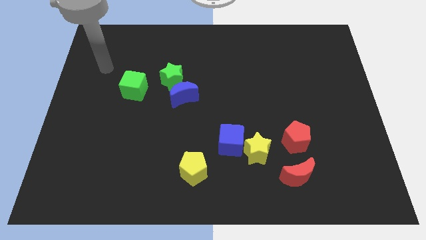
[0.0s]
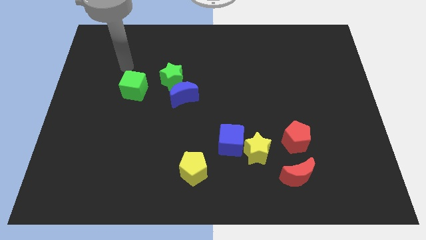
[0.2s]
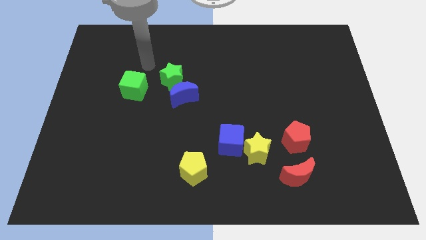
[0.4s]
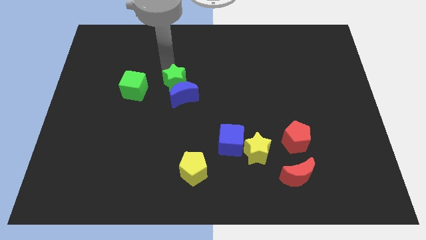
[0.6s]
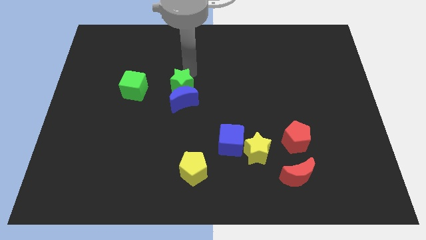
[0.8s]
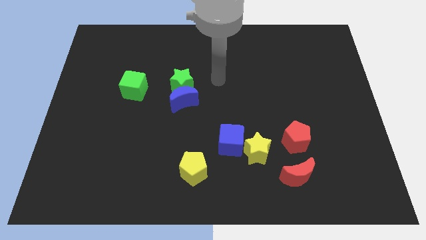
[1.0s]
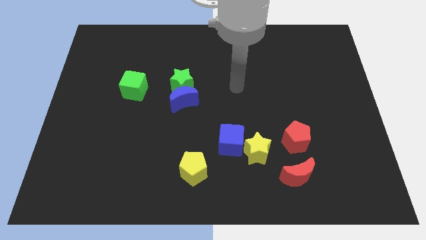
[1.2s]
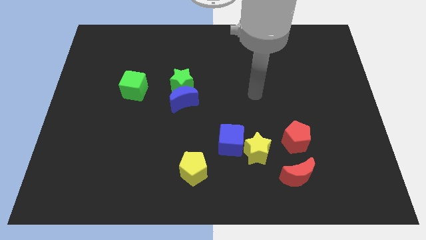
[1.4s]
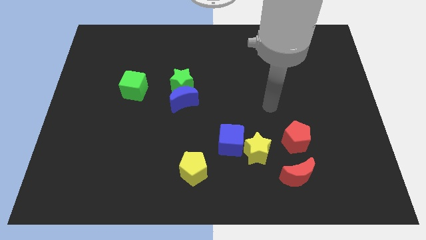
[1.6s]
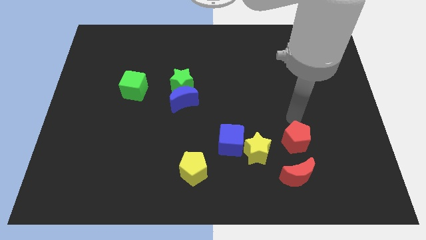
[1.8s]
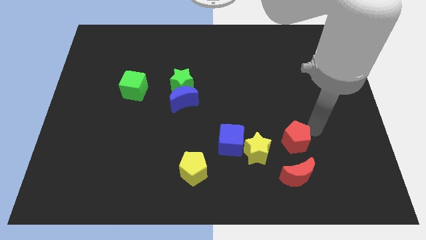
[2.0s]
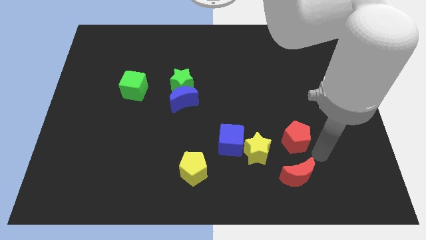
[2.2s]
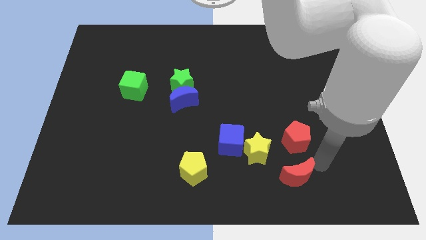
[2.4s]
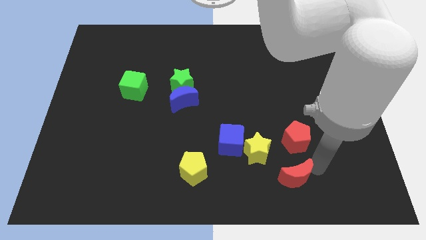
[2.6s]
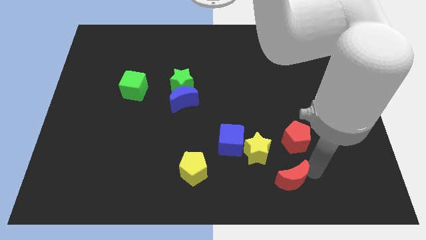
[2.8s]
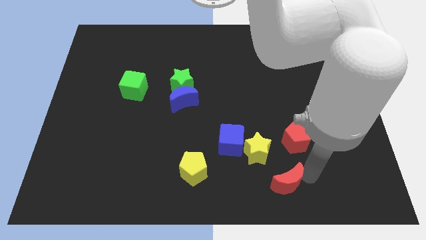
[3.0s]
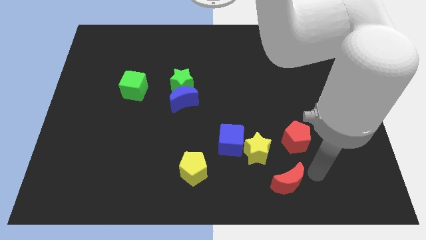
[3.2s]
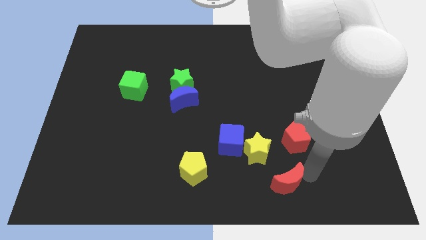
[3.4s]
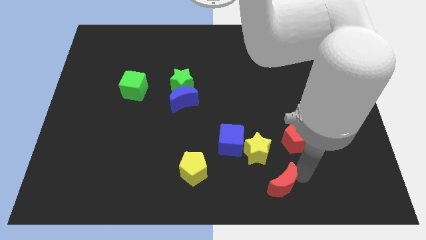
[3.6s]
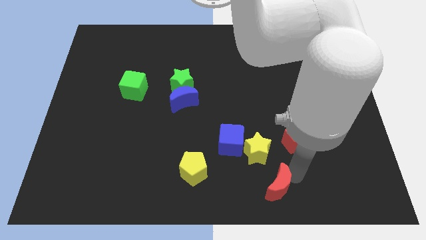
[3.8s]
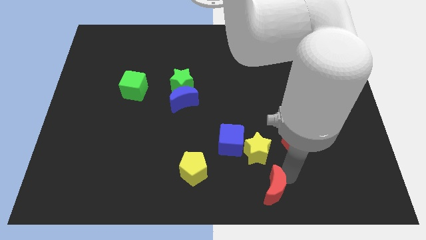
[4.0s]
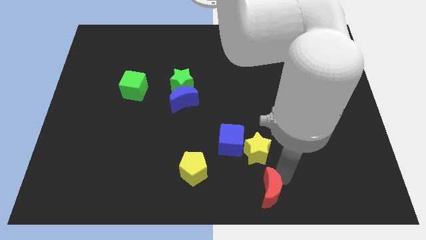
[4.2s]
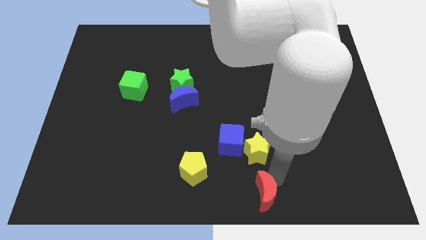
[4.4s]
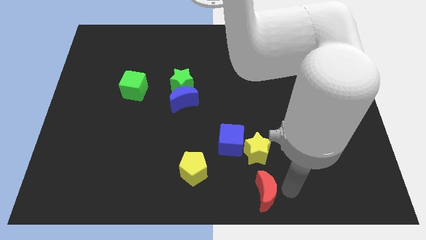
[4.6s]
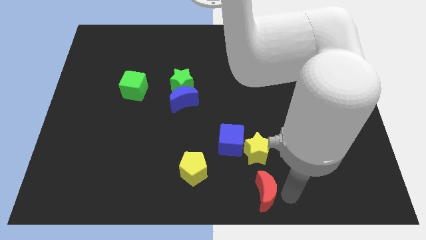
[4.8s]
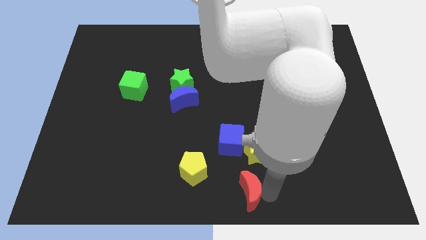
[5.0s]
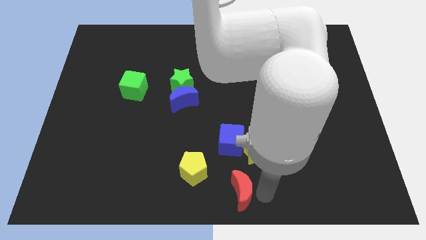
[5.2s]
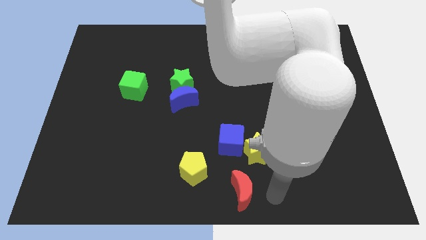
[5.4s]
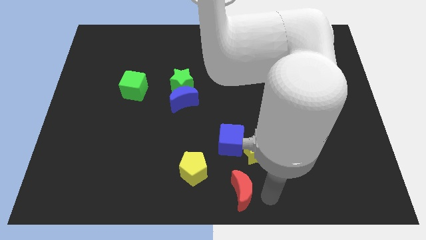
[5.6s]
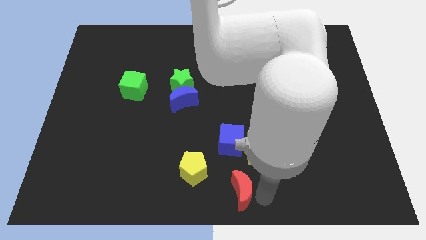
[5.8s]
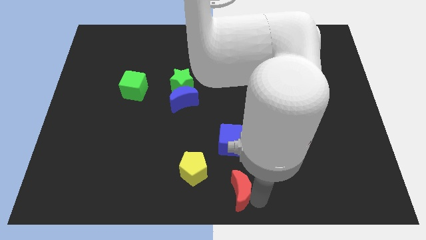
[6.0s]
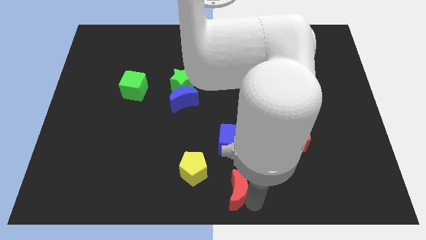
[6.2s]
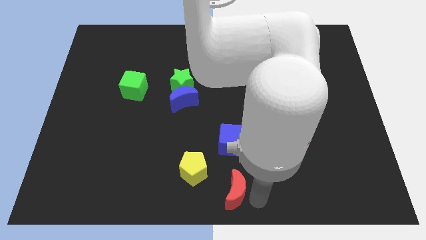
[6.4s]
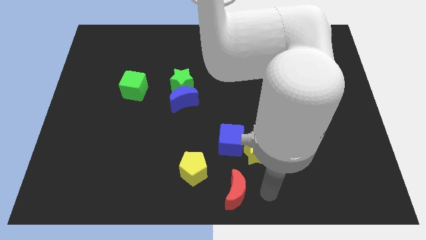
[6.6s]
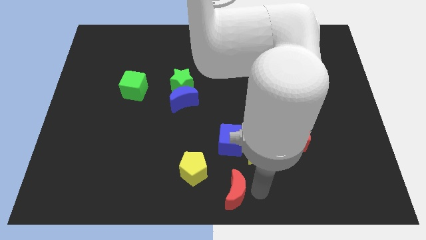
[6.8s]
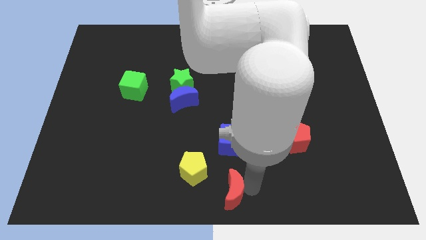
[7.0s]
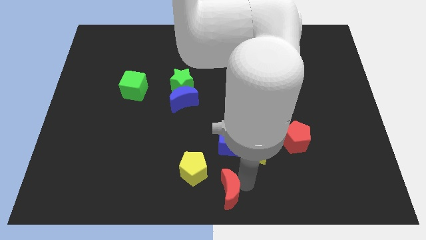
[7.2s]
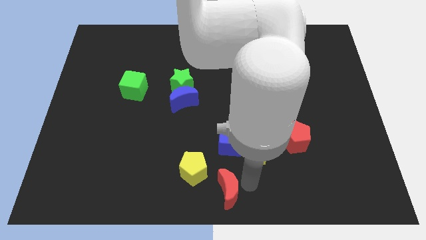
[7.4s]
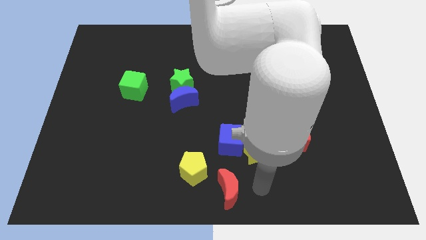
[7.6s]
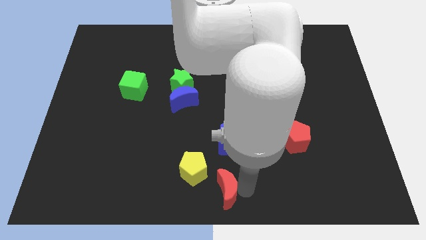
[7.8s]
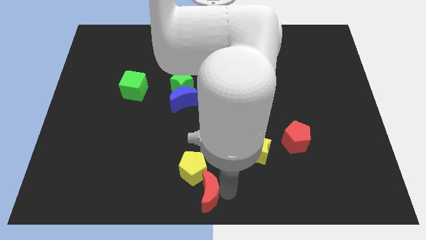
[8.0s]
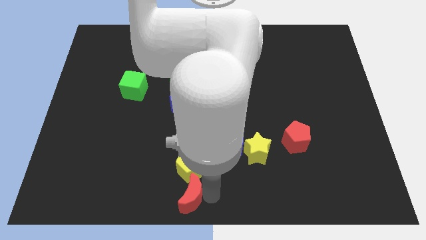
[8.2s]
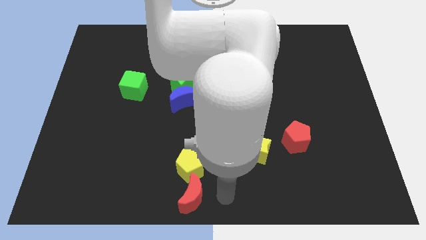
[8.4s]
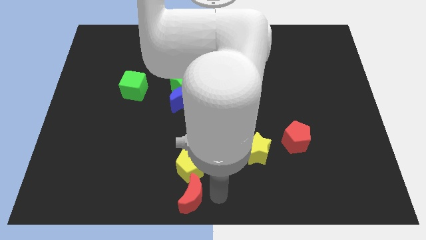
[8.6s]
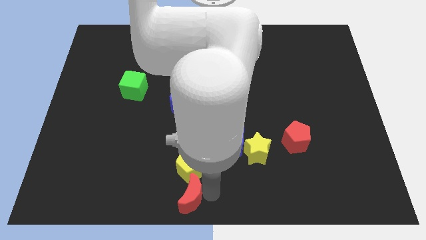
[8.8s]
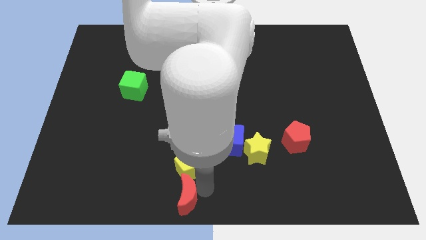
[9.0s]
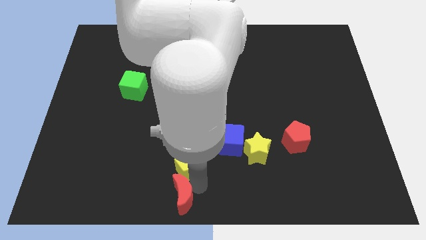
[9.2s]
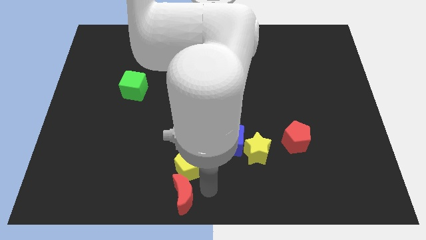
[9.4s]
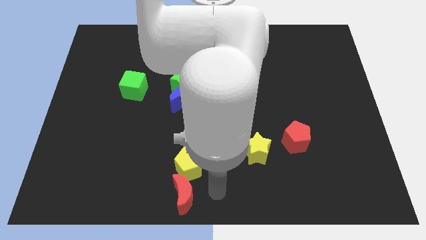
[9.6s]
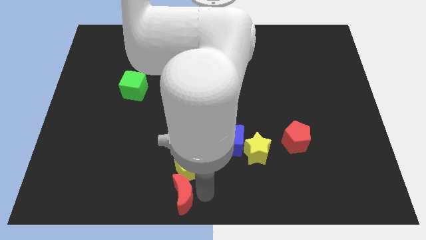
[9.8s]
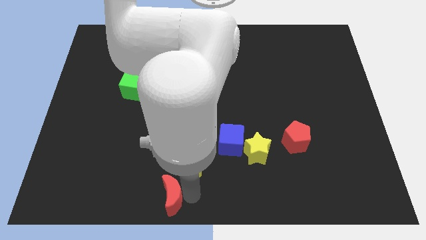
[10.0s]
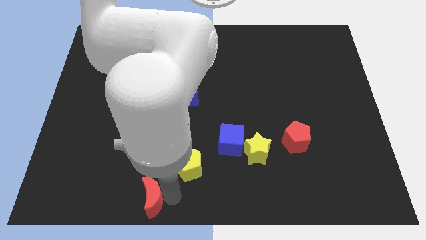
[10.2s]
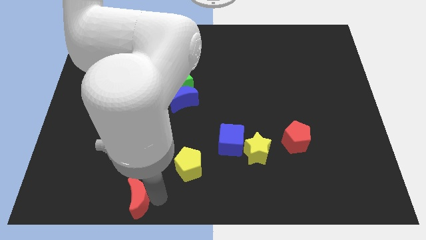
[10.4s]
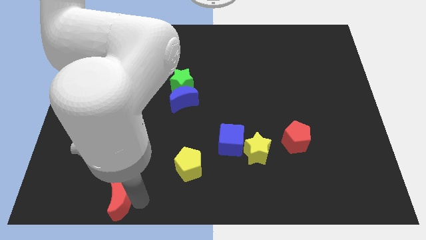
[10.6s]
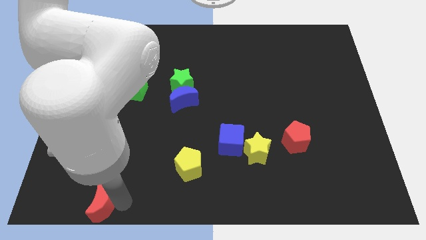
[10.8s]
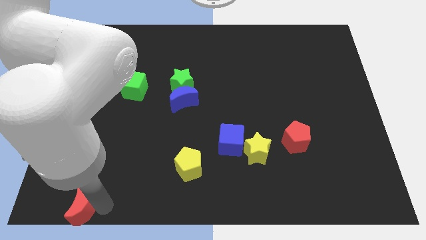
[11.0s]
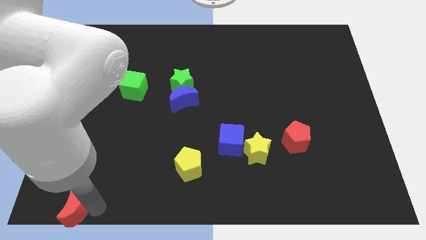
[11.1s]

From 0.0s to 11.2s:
move the red moon to the bottom left corner
